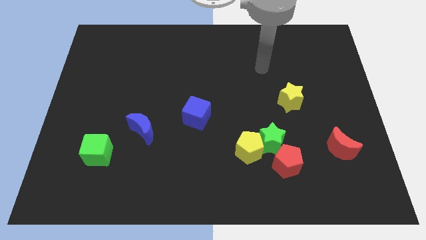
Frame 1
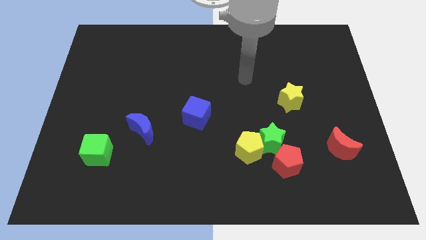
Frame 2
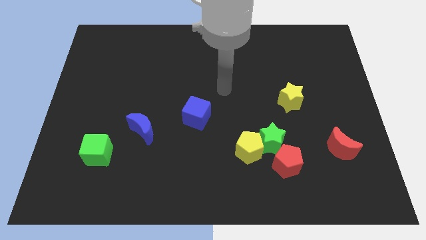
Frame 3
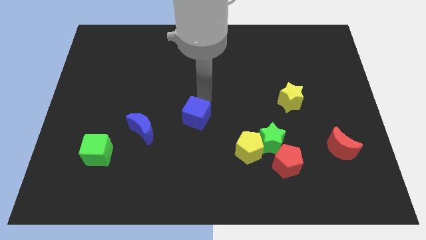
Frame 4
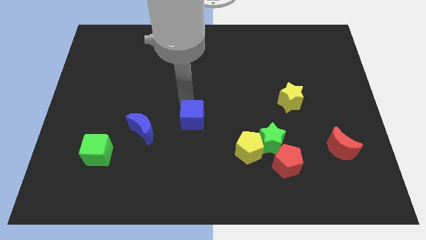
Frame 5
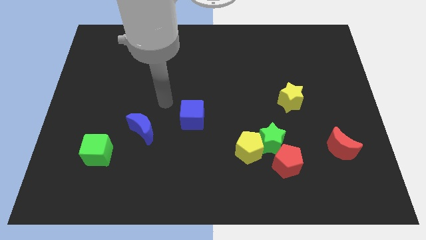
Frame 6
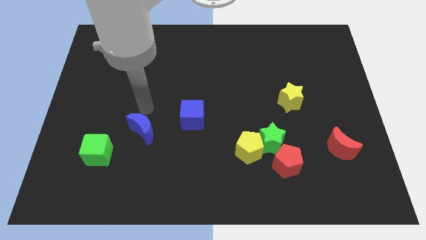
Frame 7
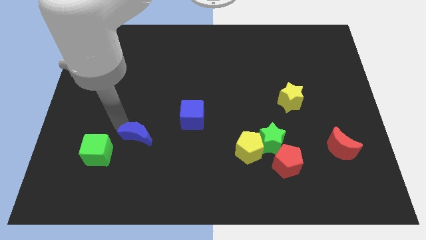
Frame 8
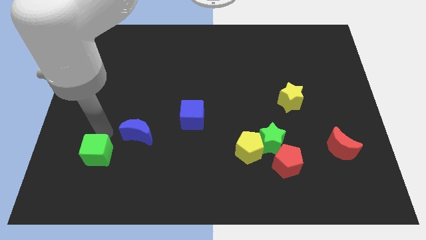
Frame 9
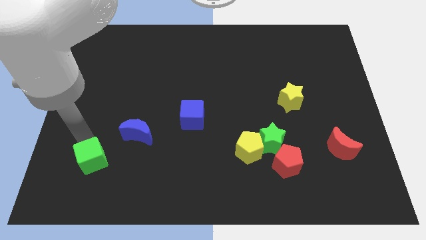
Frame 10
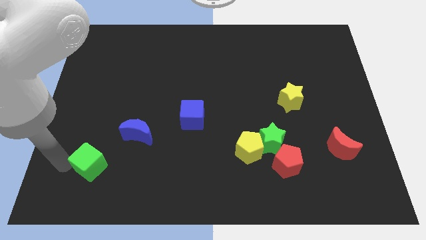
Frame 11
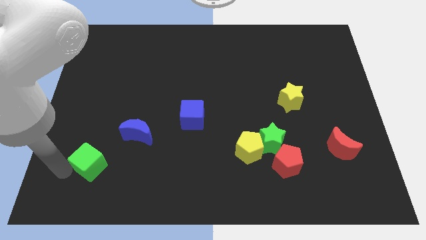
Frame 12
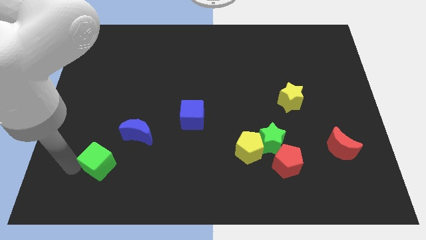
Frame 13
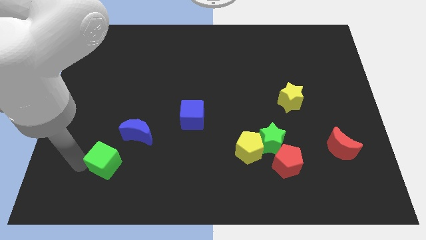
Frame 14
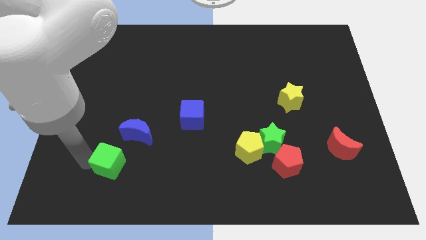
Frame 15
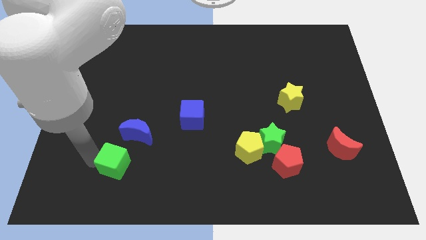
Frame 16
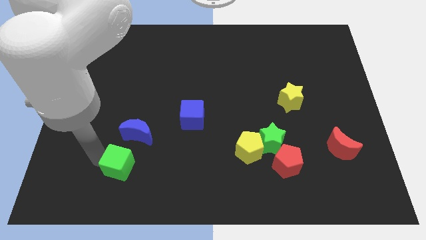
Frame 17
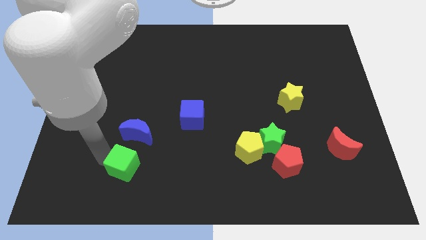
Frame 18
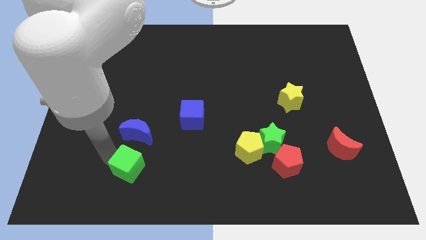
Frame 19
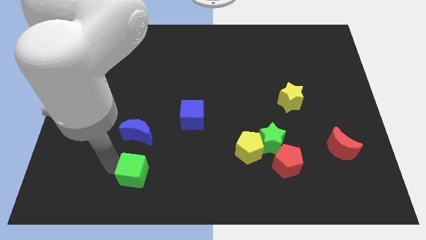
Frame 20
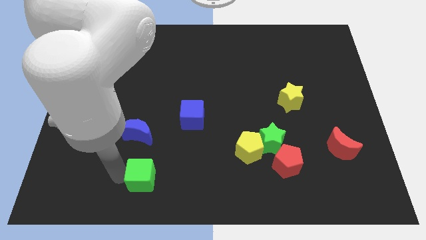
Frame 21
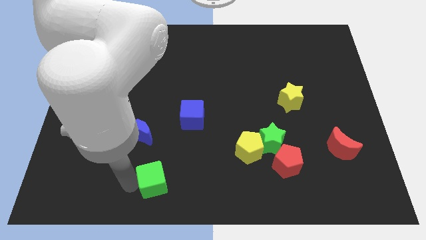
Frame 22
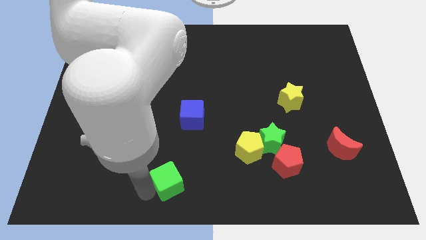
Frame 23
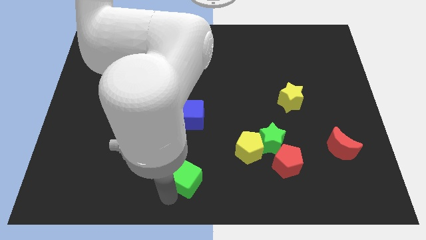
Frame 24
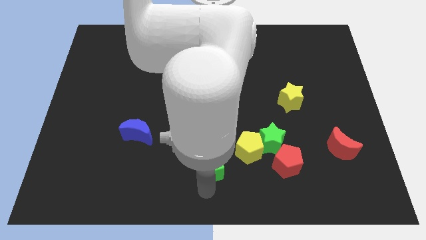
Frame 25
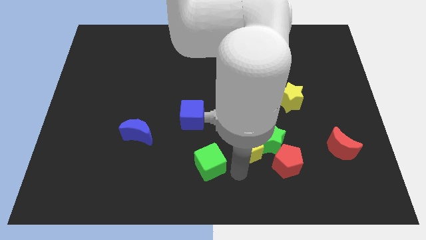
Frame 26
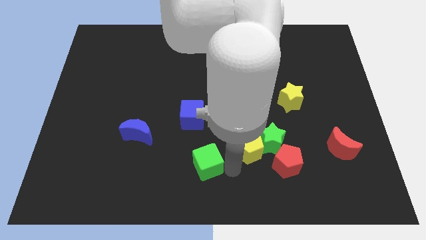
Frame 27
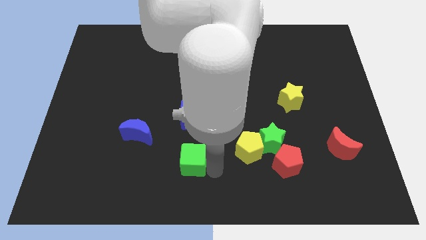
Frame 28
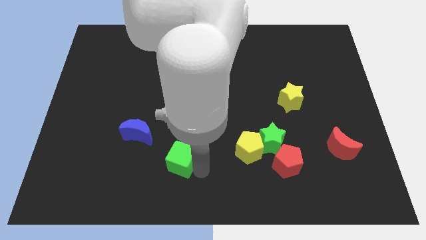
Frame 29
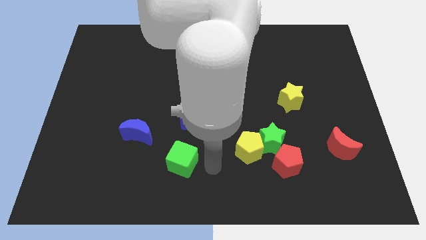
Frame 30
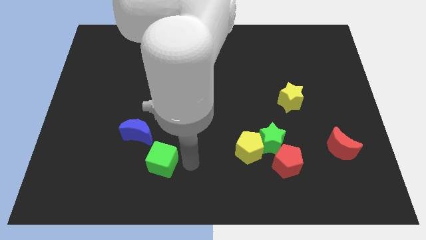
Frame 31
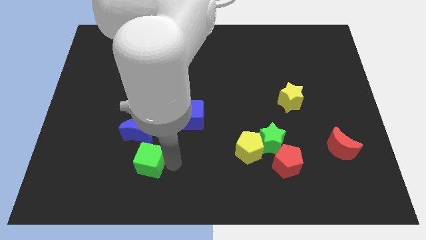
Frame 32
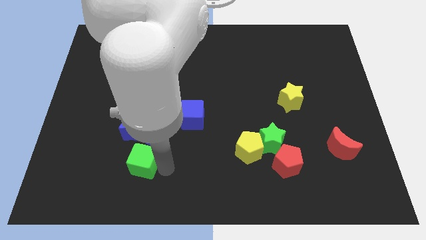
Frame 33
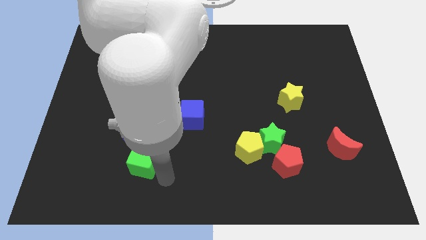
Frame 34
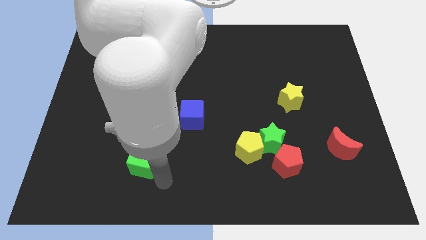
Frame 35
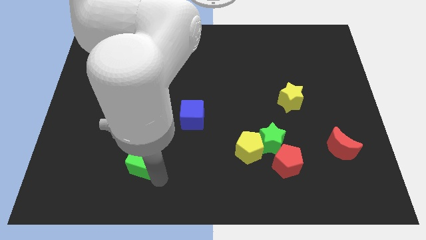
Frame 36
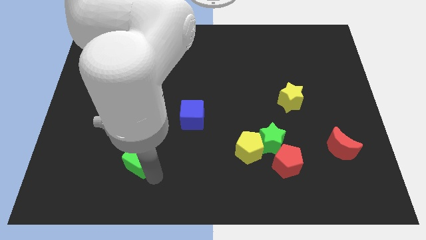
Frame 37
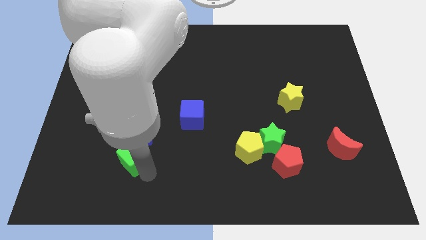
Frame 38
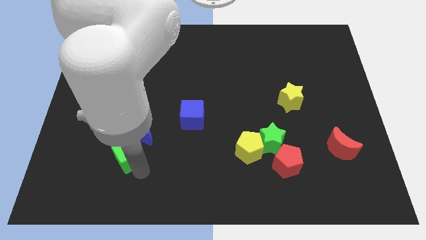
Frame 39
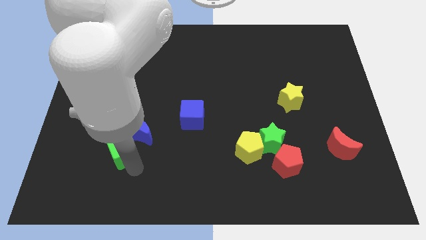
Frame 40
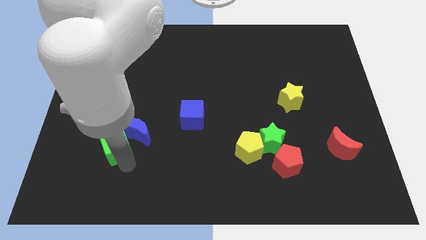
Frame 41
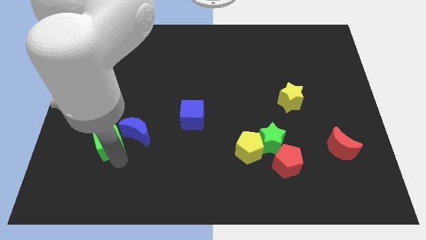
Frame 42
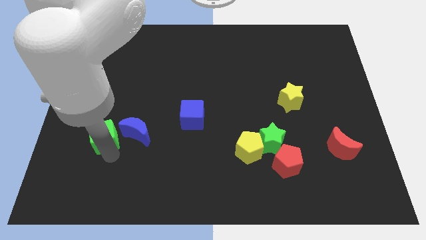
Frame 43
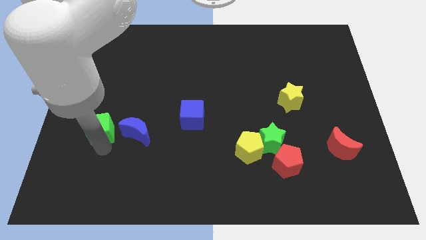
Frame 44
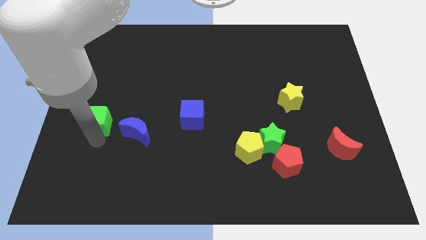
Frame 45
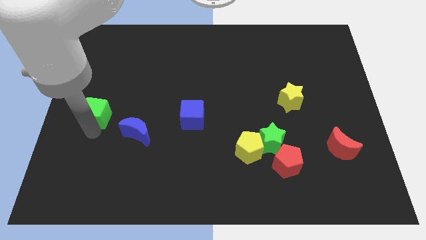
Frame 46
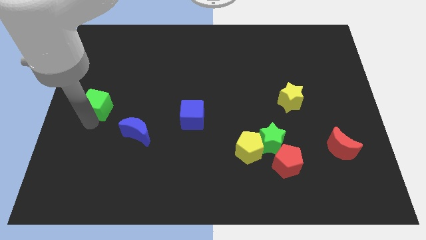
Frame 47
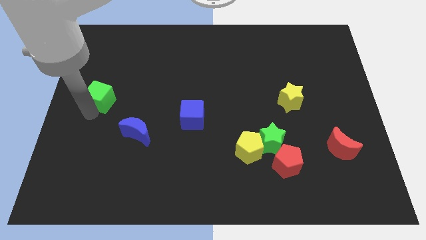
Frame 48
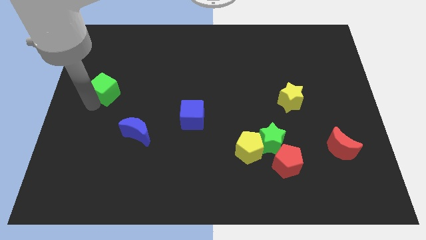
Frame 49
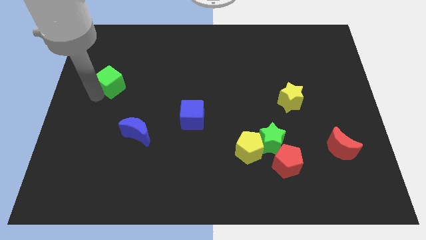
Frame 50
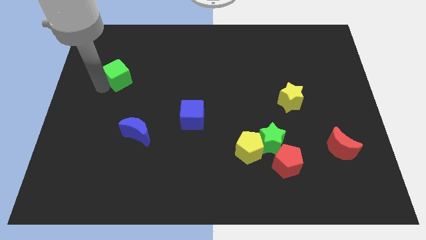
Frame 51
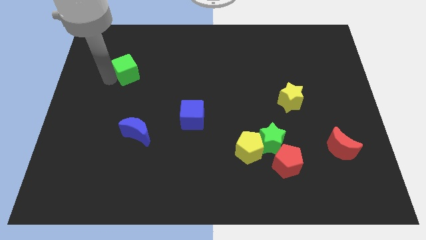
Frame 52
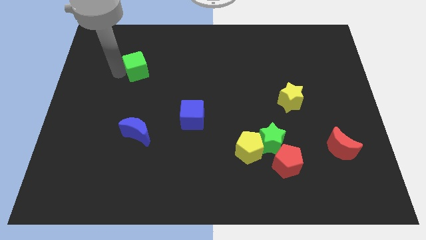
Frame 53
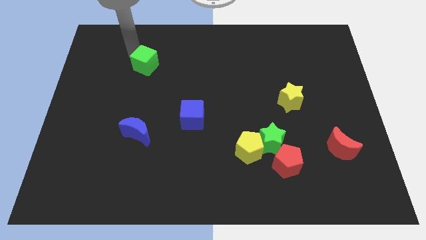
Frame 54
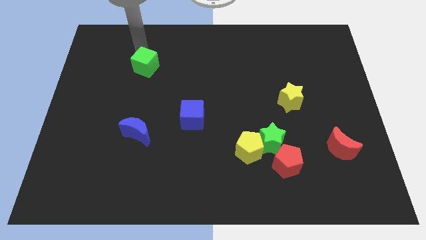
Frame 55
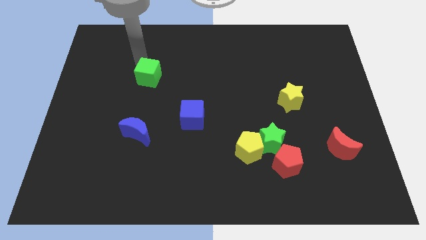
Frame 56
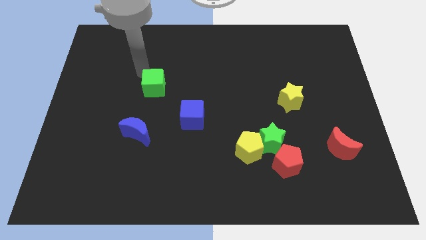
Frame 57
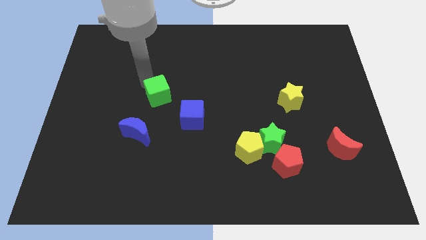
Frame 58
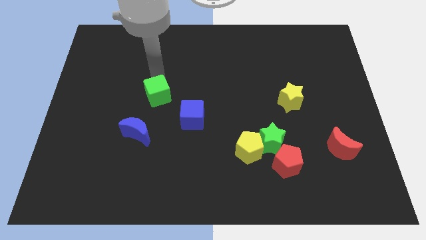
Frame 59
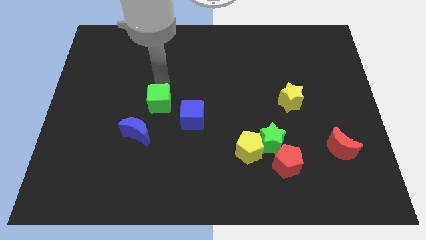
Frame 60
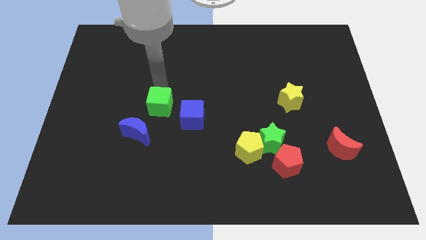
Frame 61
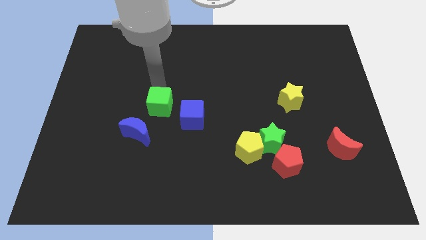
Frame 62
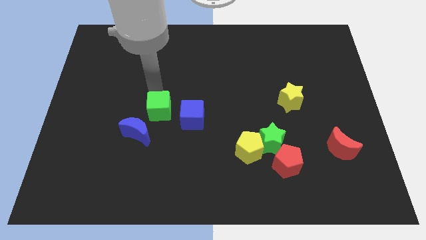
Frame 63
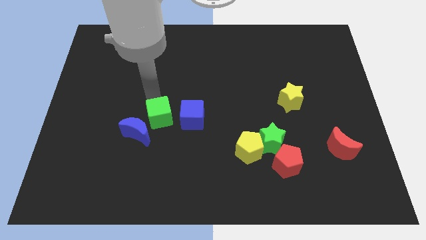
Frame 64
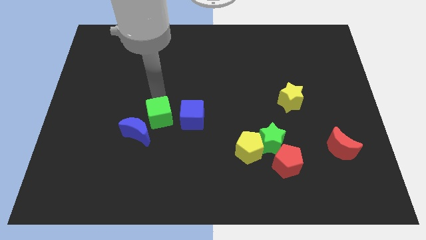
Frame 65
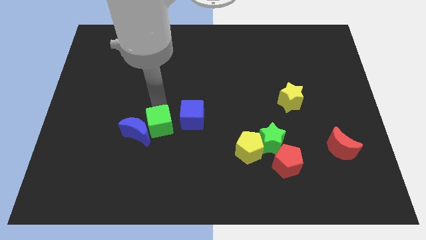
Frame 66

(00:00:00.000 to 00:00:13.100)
slide the green cube to the bottom left of the blue cube

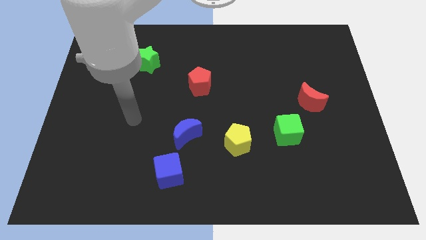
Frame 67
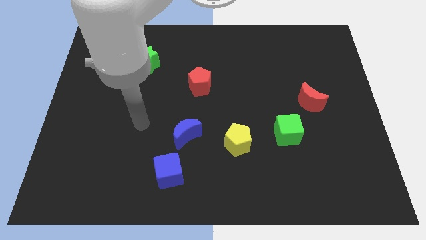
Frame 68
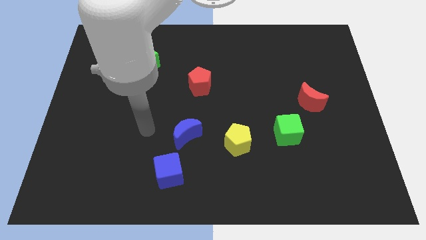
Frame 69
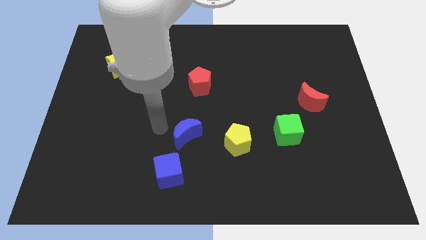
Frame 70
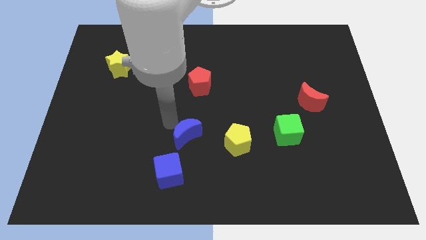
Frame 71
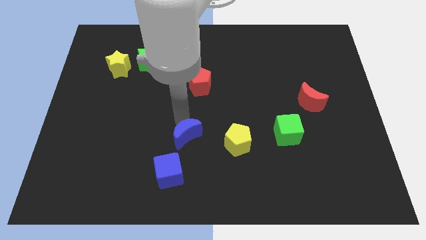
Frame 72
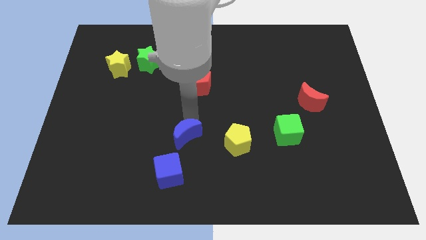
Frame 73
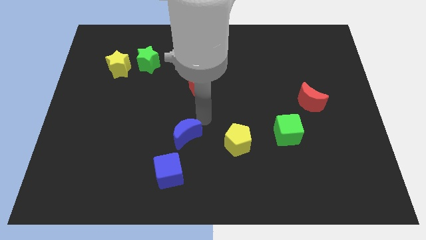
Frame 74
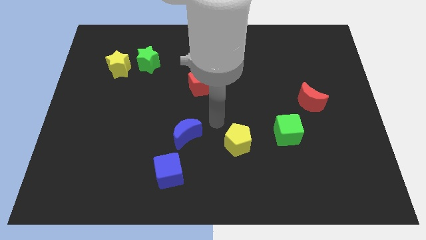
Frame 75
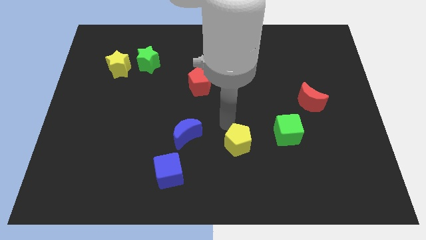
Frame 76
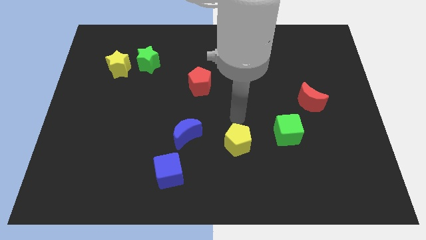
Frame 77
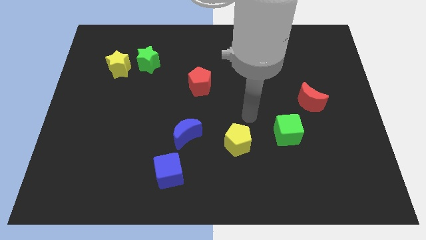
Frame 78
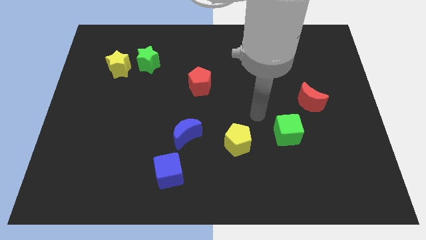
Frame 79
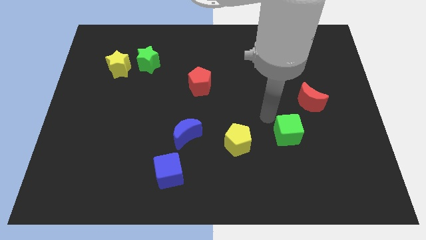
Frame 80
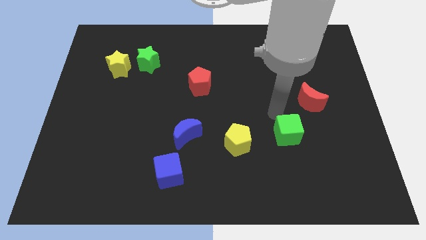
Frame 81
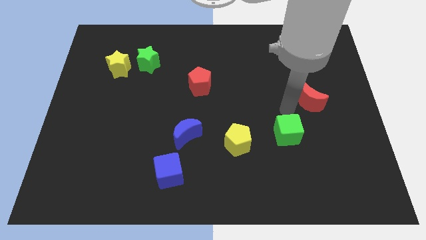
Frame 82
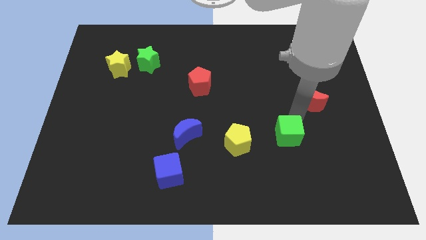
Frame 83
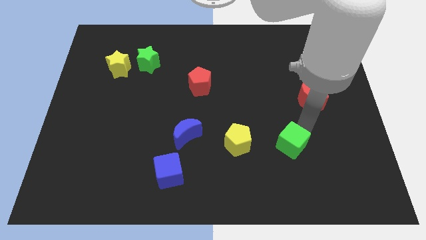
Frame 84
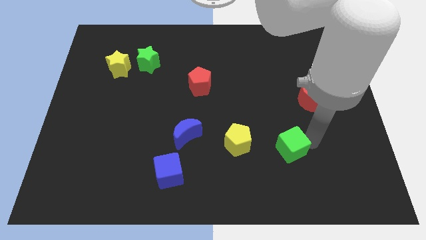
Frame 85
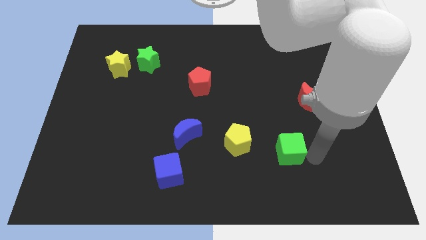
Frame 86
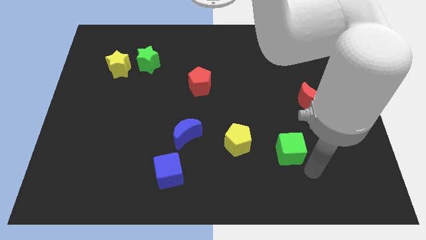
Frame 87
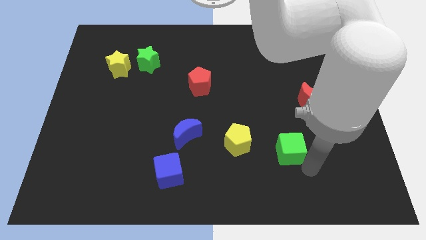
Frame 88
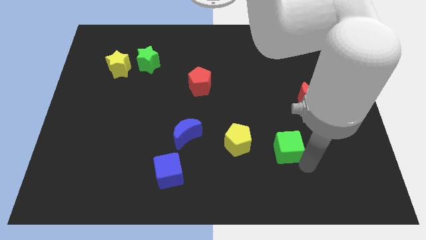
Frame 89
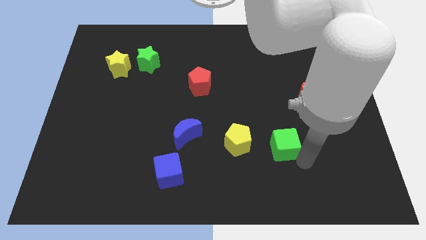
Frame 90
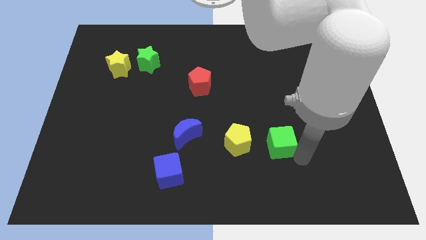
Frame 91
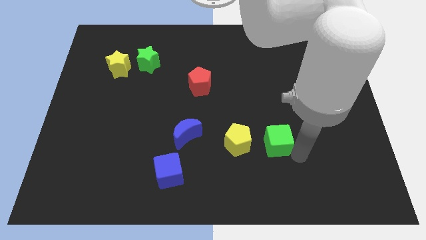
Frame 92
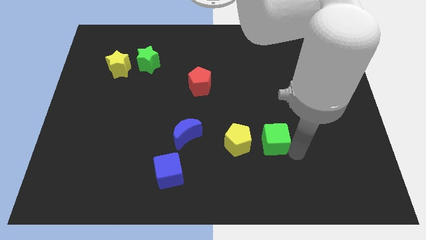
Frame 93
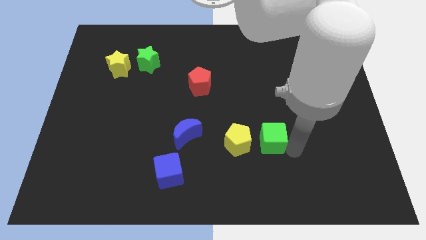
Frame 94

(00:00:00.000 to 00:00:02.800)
move the green cube to the top right of the yellow pentagon
